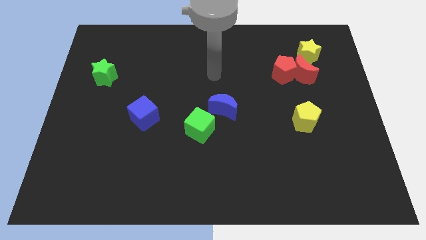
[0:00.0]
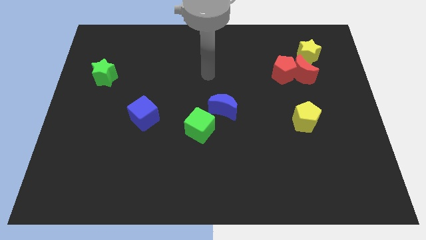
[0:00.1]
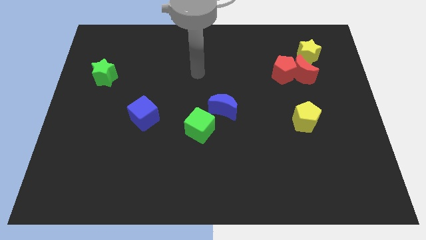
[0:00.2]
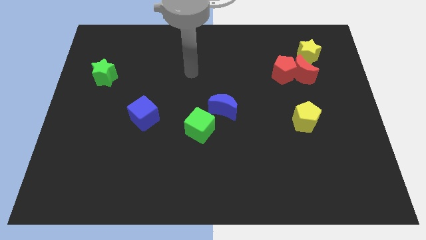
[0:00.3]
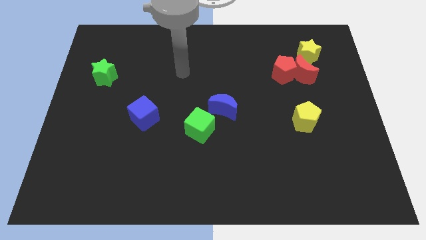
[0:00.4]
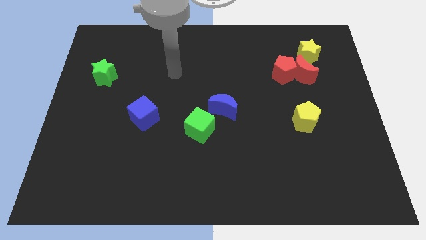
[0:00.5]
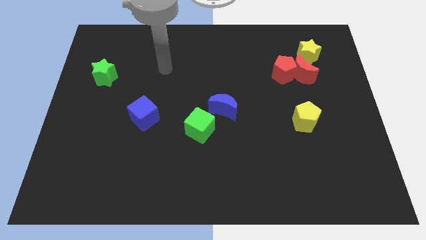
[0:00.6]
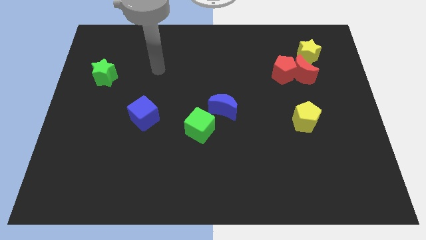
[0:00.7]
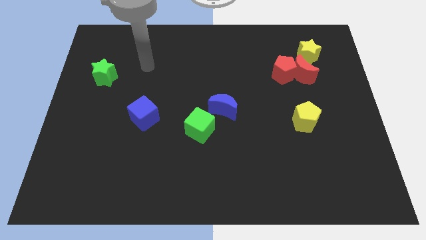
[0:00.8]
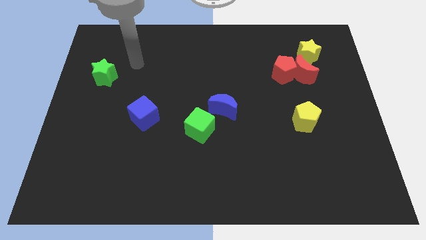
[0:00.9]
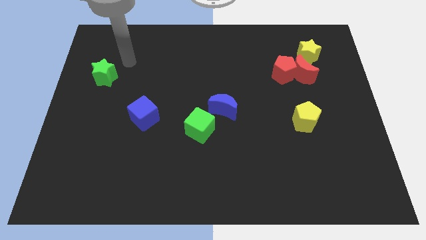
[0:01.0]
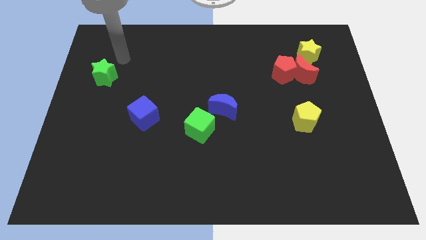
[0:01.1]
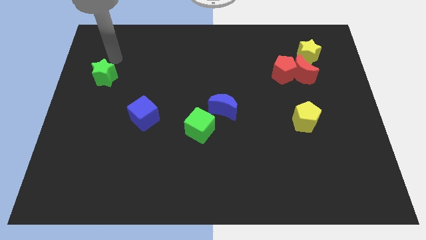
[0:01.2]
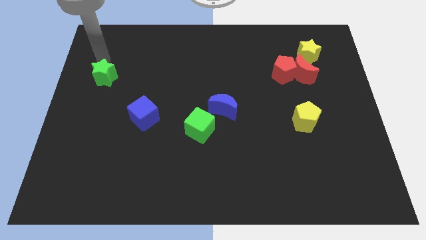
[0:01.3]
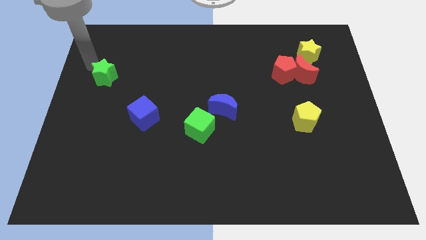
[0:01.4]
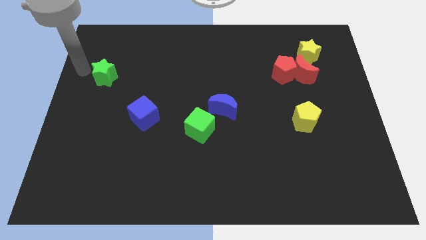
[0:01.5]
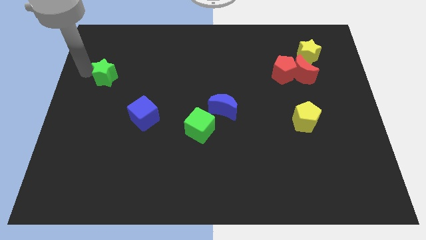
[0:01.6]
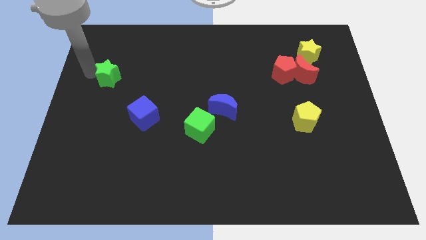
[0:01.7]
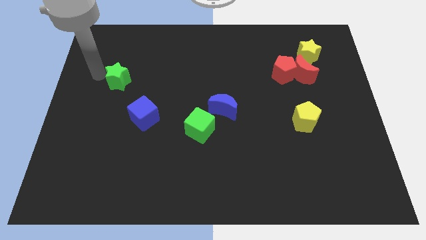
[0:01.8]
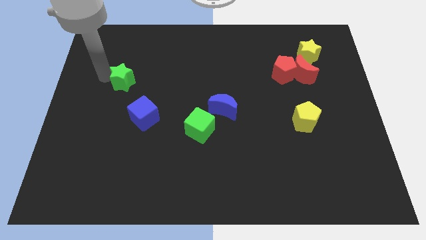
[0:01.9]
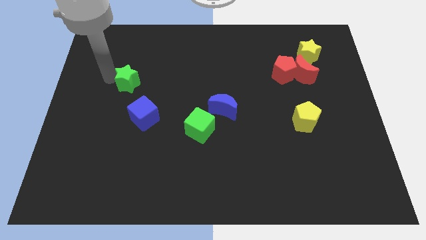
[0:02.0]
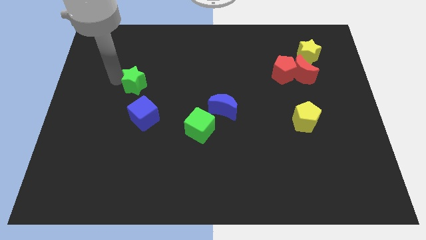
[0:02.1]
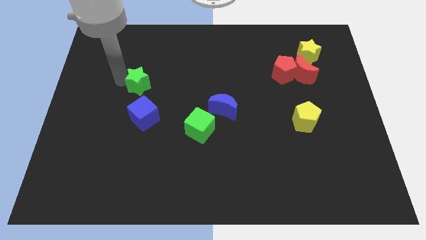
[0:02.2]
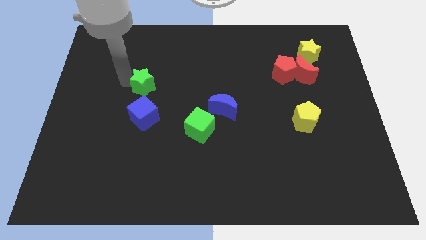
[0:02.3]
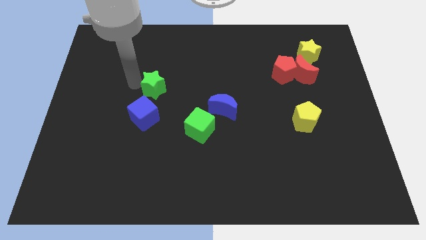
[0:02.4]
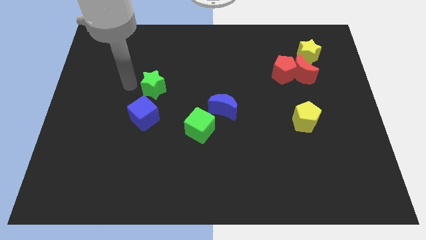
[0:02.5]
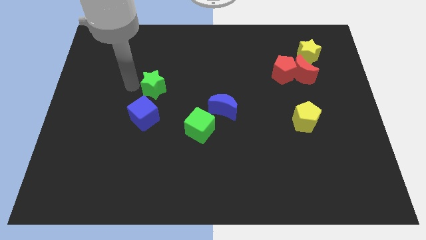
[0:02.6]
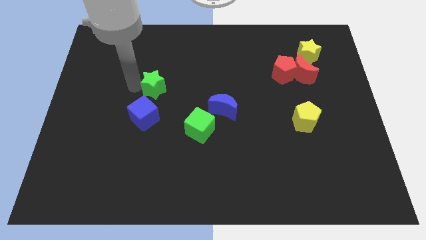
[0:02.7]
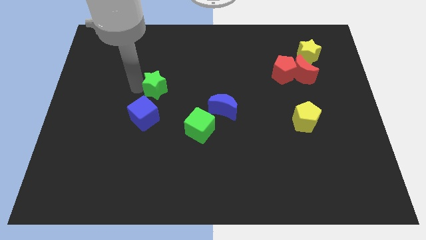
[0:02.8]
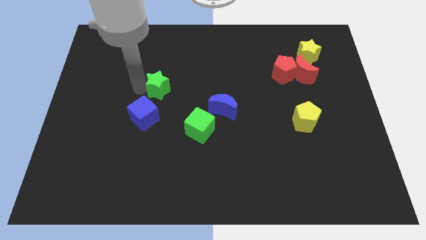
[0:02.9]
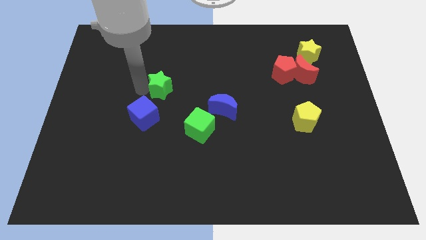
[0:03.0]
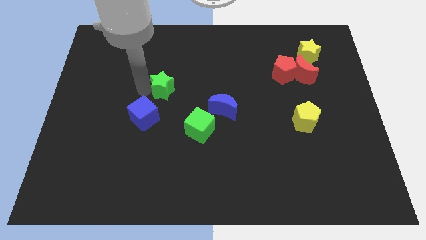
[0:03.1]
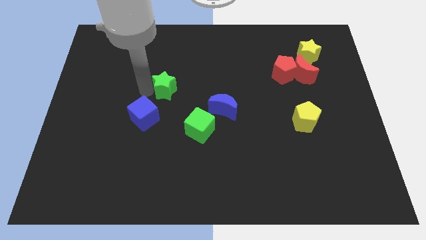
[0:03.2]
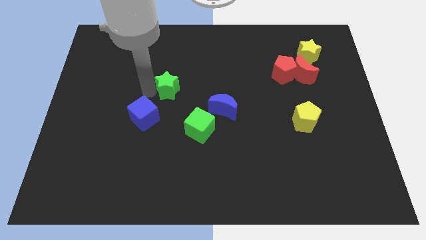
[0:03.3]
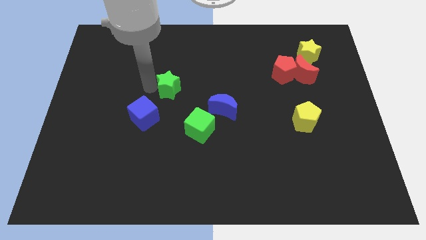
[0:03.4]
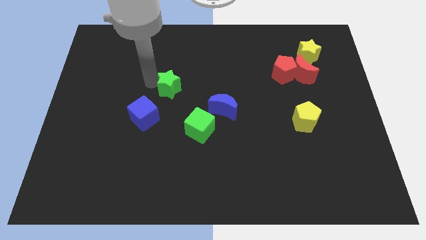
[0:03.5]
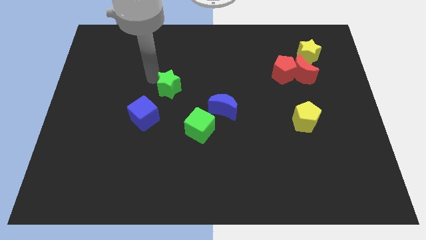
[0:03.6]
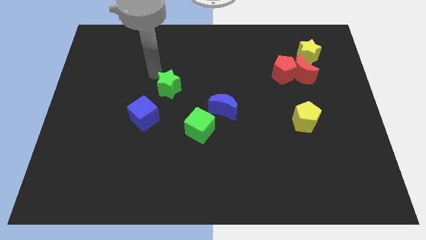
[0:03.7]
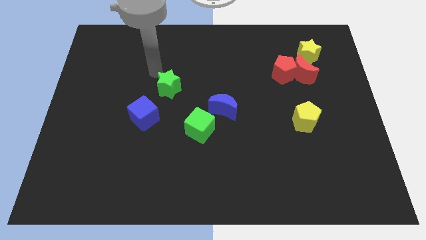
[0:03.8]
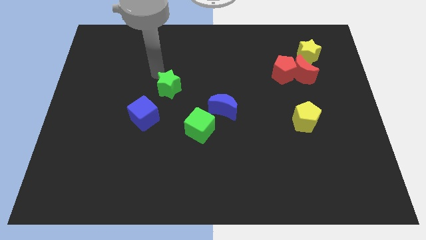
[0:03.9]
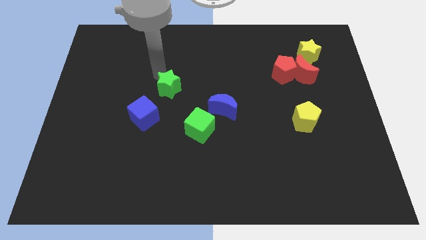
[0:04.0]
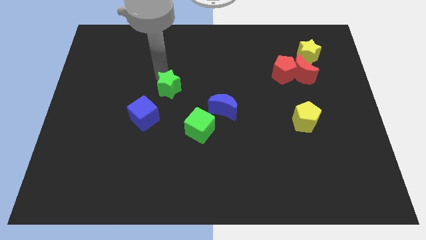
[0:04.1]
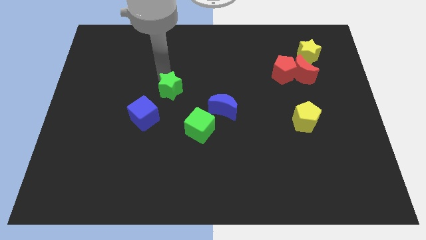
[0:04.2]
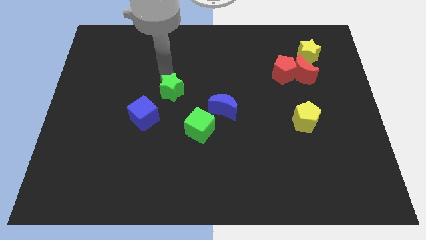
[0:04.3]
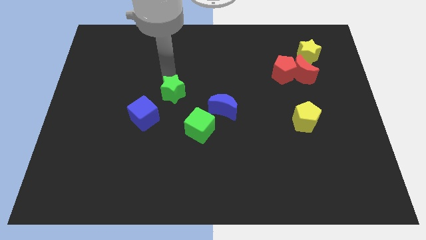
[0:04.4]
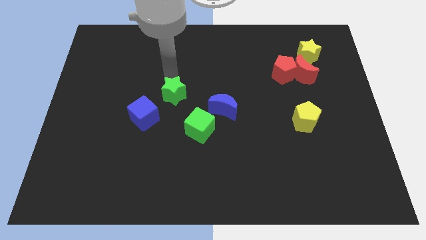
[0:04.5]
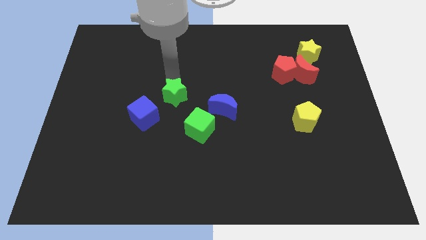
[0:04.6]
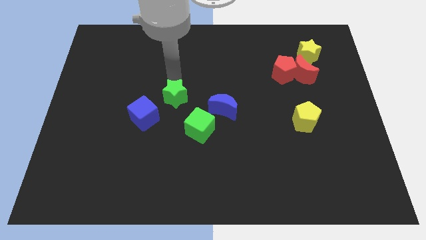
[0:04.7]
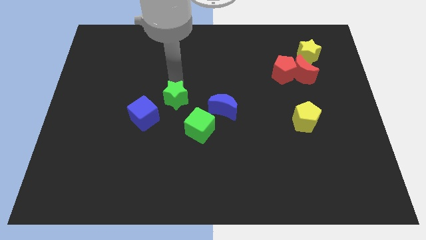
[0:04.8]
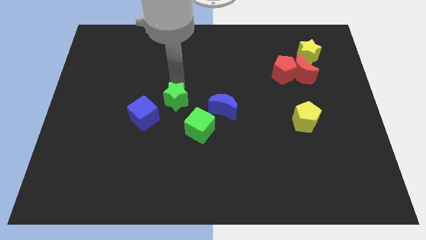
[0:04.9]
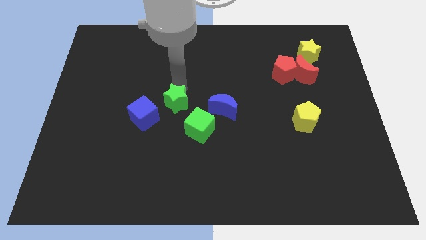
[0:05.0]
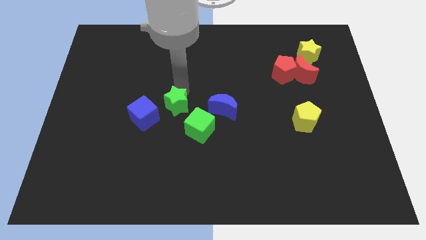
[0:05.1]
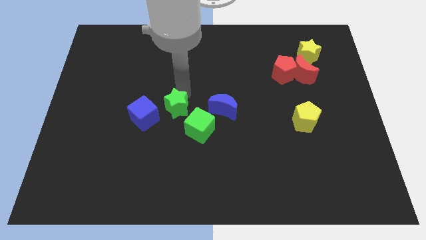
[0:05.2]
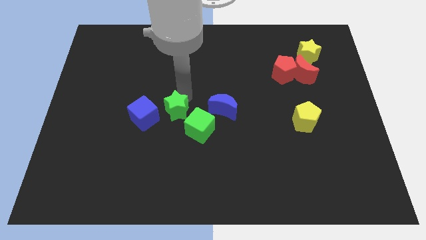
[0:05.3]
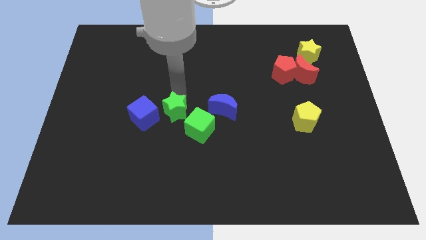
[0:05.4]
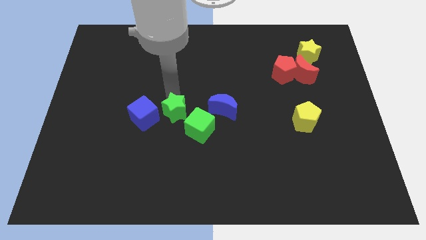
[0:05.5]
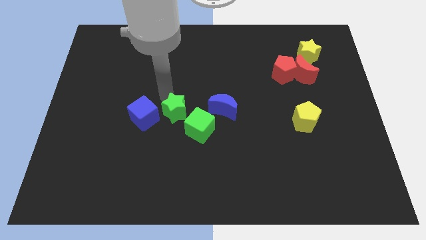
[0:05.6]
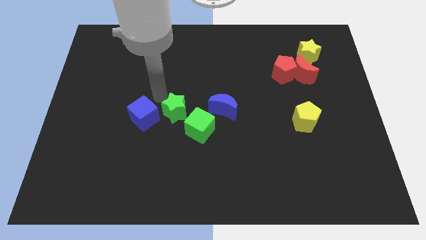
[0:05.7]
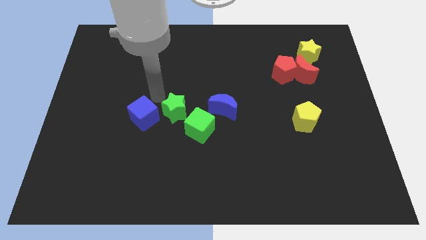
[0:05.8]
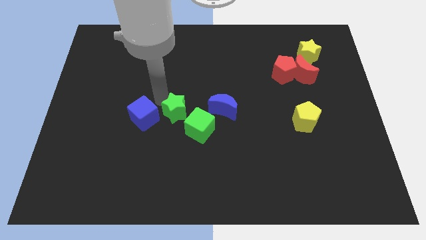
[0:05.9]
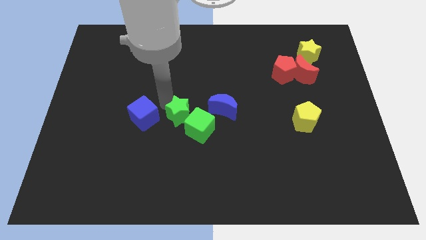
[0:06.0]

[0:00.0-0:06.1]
put the green star next to the green cube

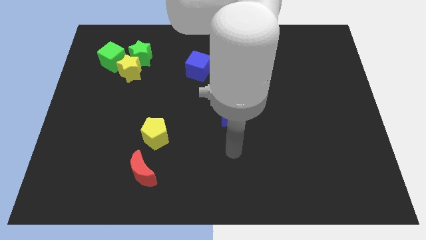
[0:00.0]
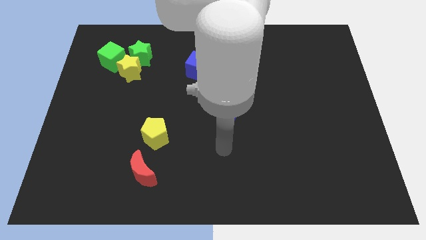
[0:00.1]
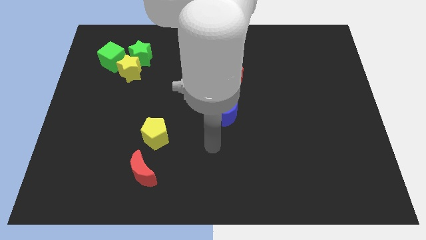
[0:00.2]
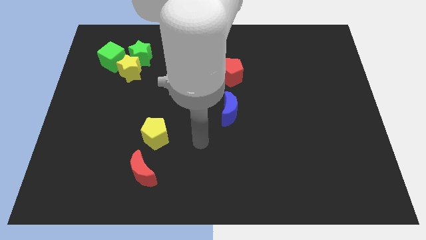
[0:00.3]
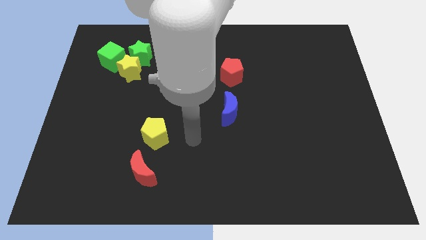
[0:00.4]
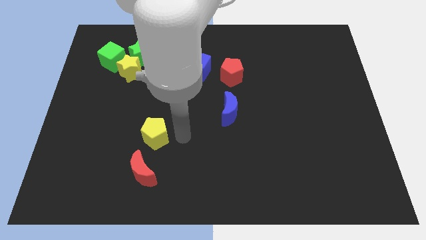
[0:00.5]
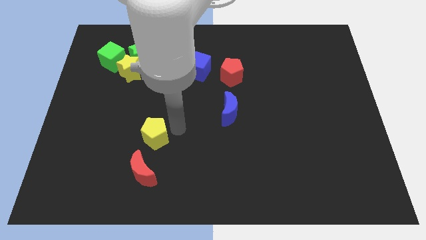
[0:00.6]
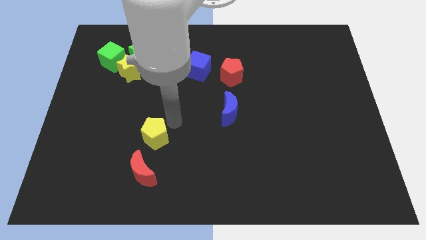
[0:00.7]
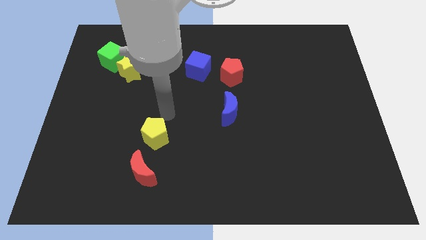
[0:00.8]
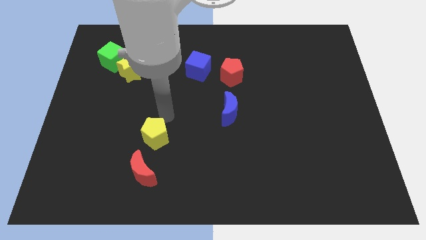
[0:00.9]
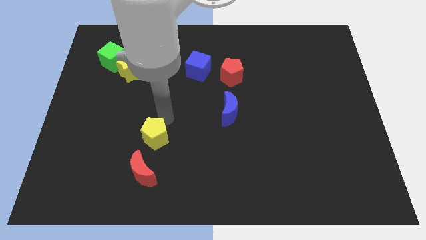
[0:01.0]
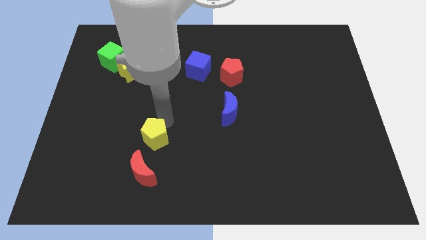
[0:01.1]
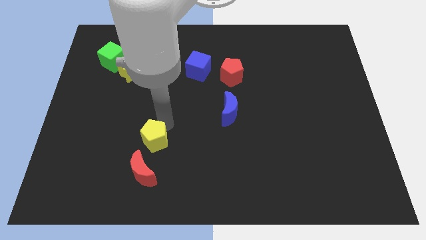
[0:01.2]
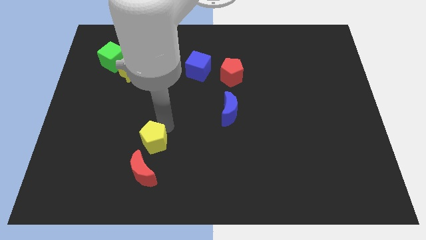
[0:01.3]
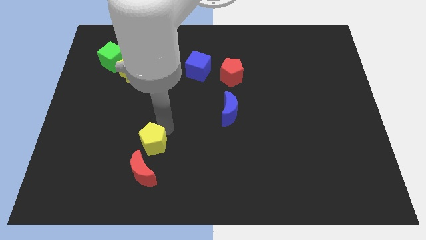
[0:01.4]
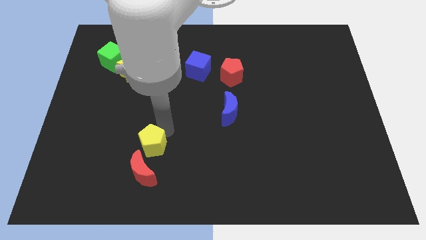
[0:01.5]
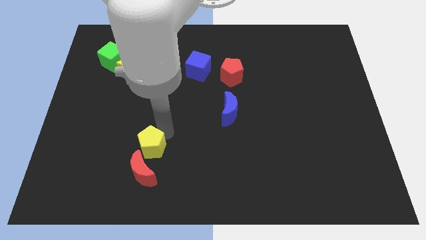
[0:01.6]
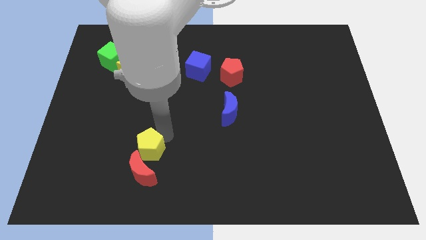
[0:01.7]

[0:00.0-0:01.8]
slide the yellow pentagon to the red moon

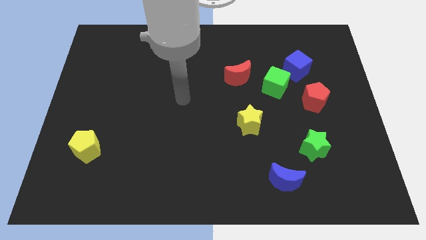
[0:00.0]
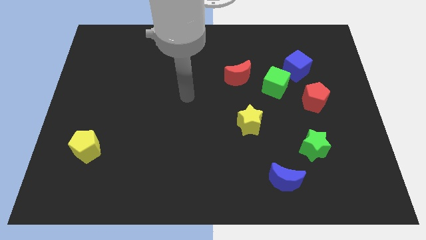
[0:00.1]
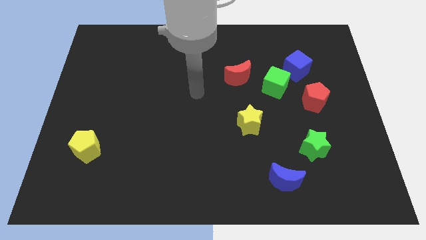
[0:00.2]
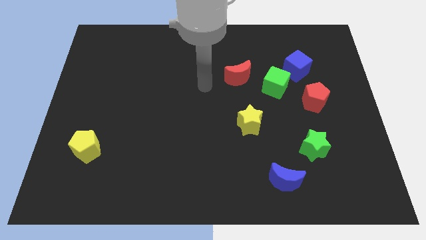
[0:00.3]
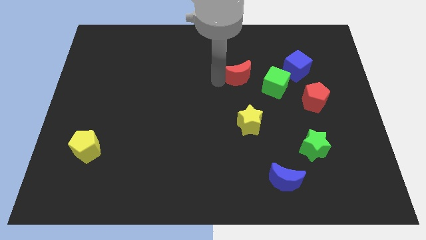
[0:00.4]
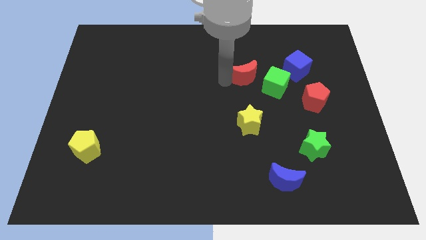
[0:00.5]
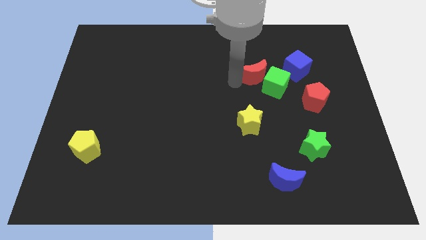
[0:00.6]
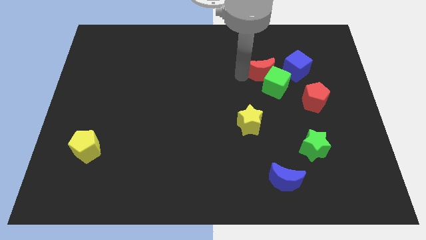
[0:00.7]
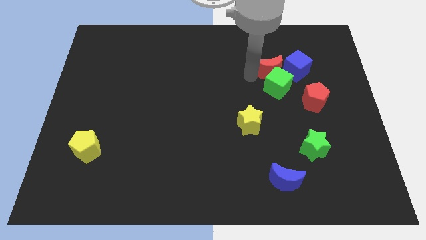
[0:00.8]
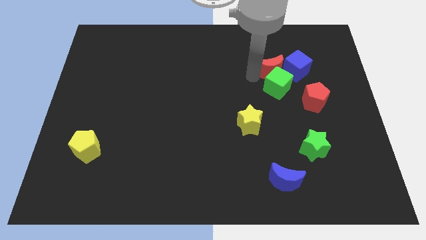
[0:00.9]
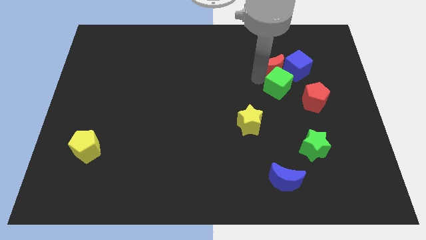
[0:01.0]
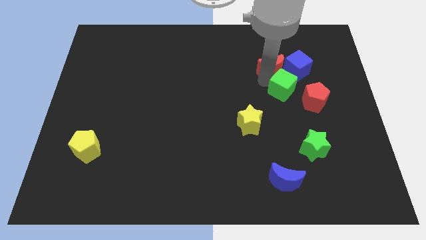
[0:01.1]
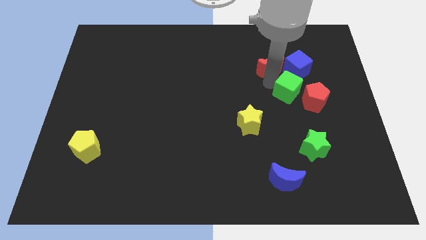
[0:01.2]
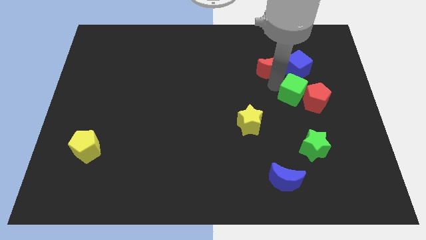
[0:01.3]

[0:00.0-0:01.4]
move the green cube to the red pentagon
